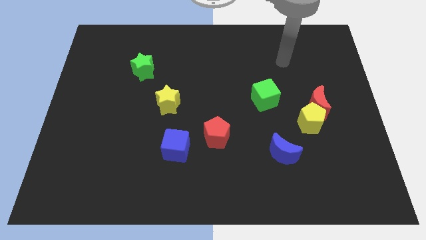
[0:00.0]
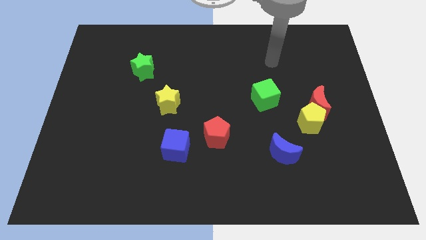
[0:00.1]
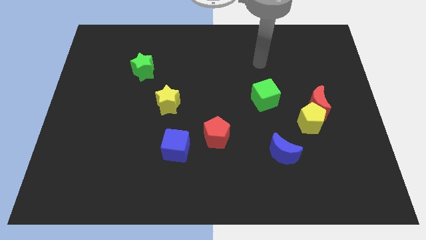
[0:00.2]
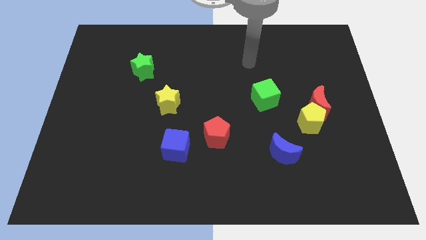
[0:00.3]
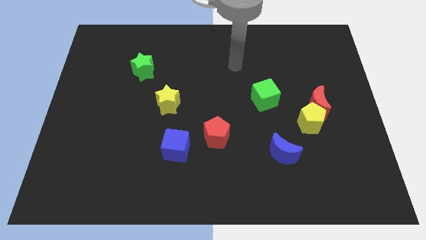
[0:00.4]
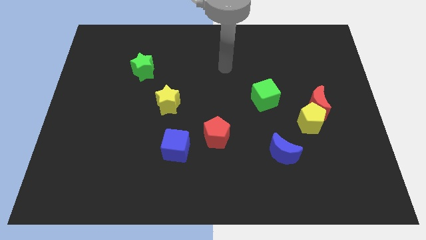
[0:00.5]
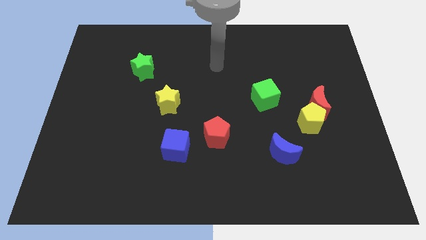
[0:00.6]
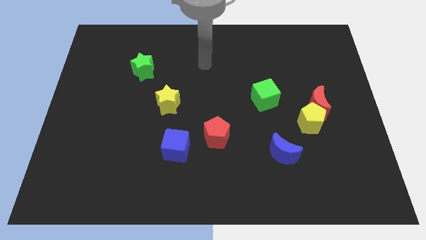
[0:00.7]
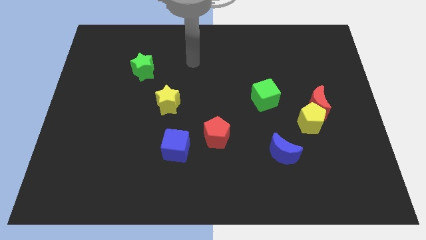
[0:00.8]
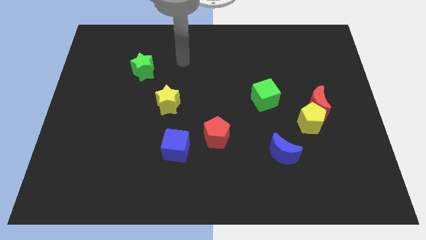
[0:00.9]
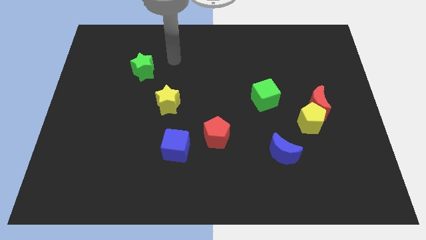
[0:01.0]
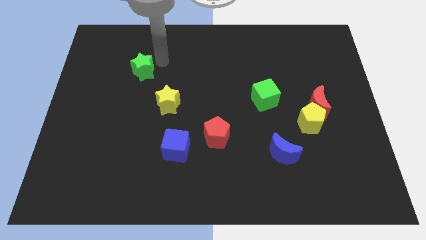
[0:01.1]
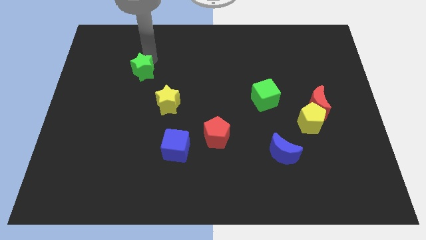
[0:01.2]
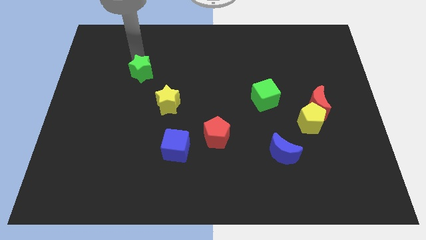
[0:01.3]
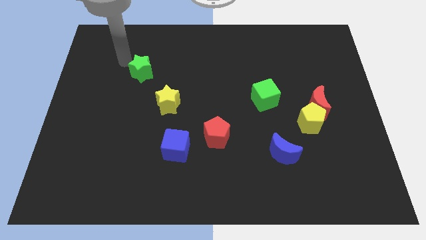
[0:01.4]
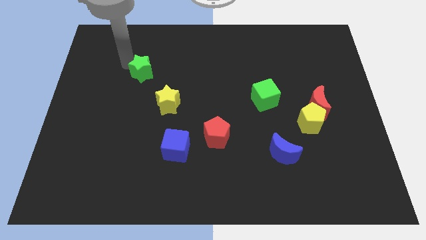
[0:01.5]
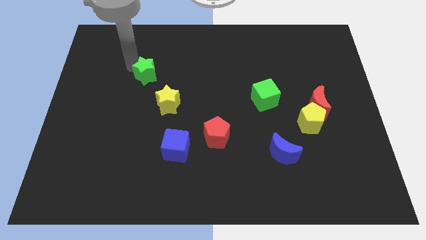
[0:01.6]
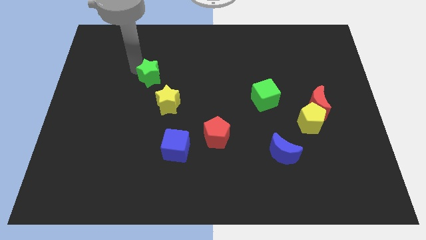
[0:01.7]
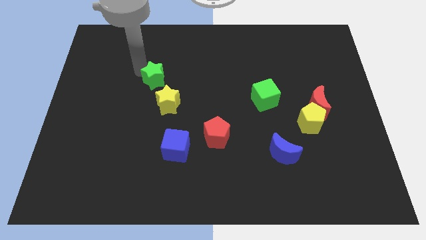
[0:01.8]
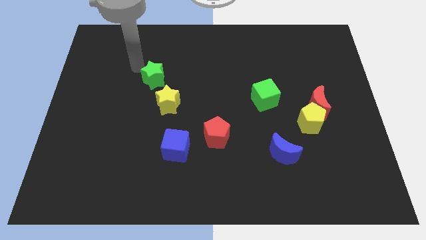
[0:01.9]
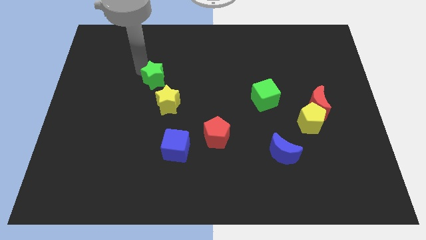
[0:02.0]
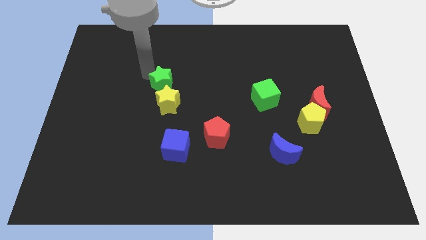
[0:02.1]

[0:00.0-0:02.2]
push the green star diagonally downwards and right a bit

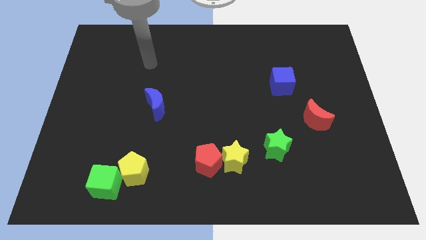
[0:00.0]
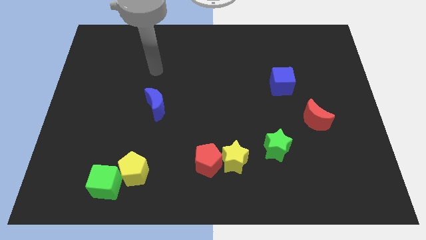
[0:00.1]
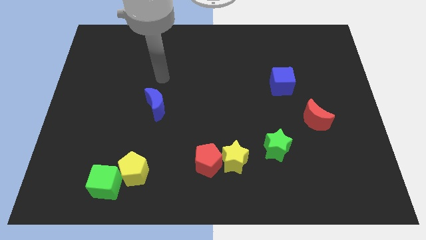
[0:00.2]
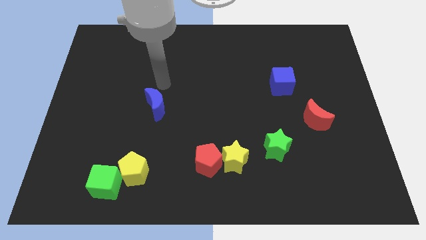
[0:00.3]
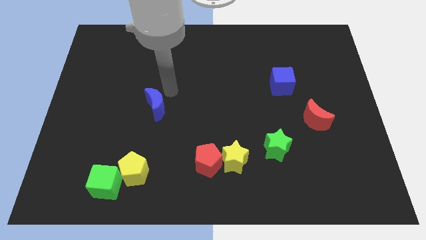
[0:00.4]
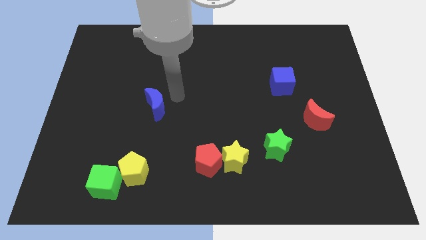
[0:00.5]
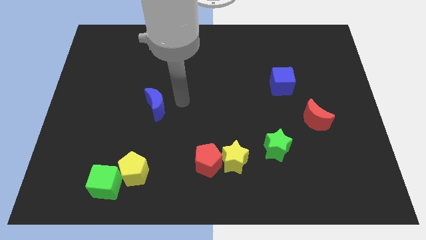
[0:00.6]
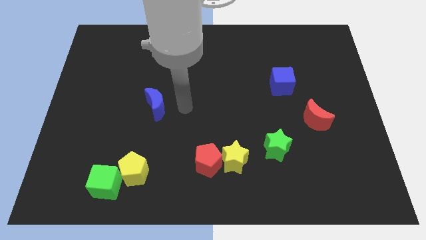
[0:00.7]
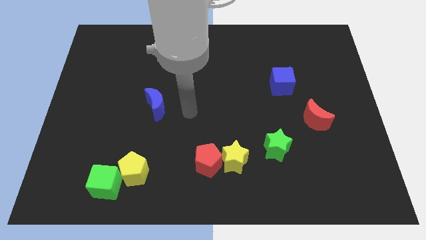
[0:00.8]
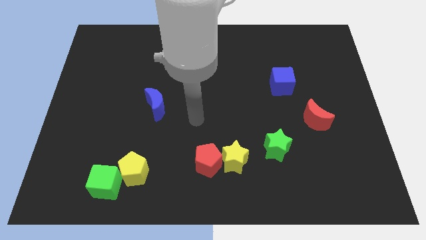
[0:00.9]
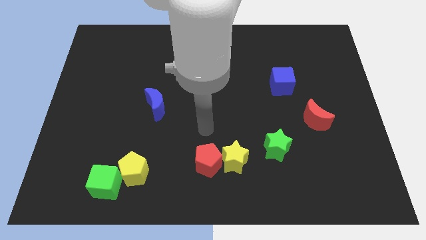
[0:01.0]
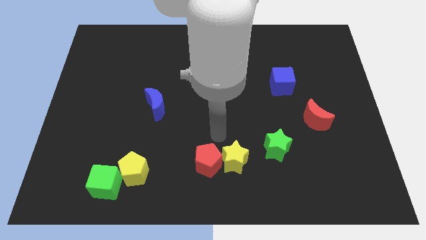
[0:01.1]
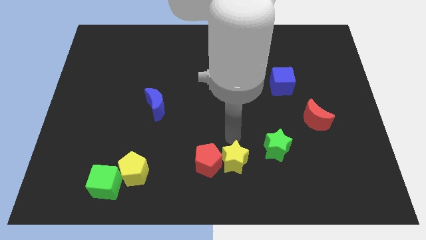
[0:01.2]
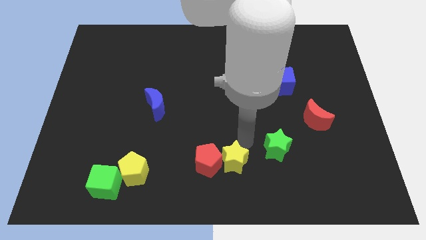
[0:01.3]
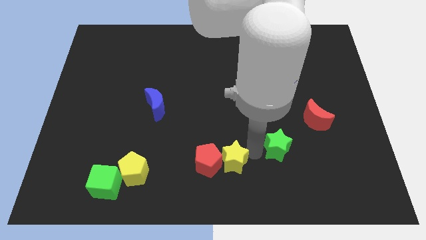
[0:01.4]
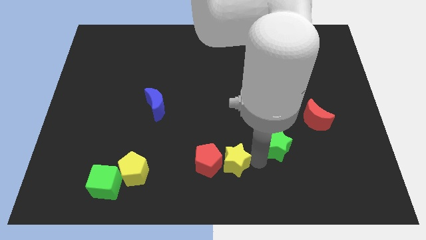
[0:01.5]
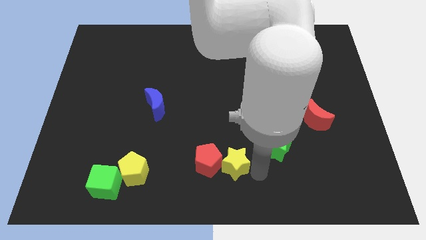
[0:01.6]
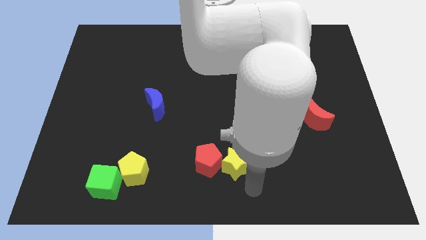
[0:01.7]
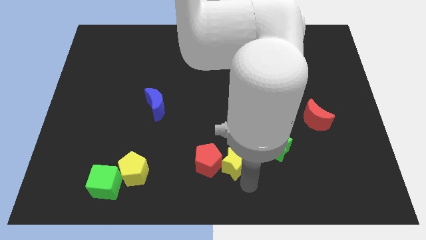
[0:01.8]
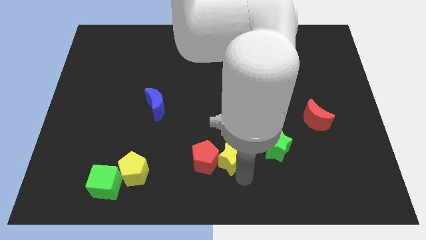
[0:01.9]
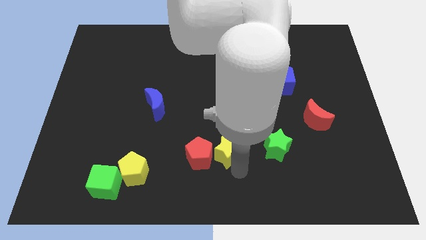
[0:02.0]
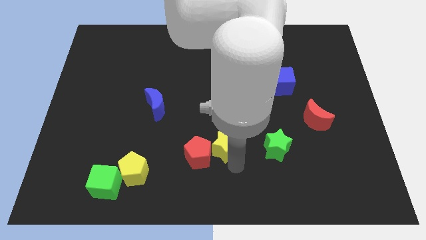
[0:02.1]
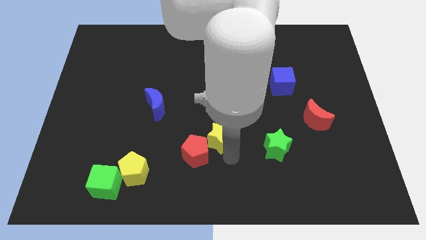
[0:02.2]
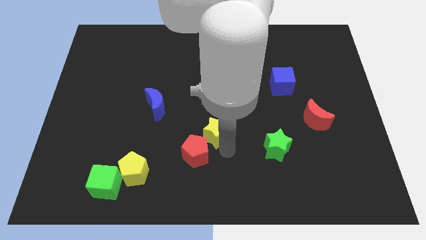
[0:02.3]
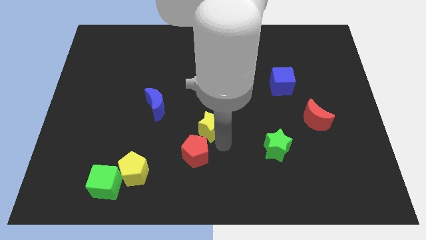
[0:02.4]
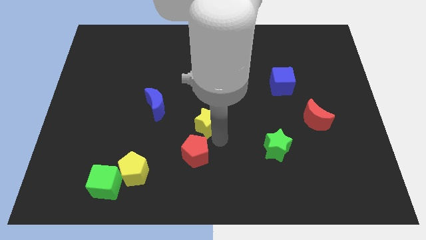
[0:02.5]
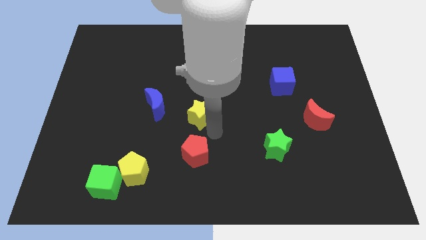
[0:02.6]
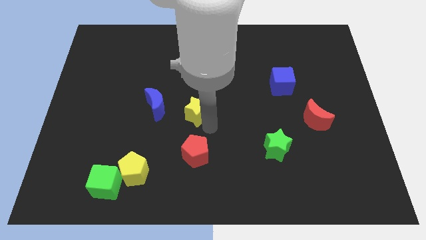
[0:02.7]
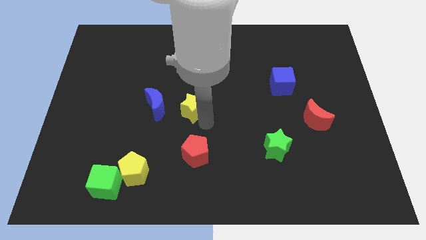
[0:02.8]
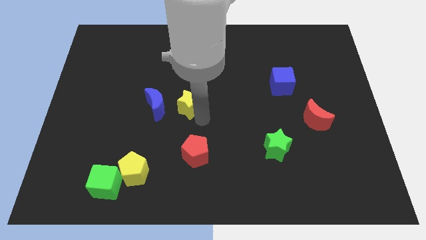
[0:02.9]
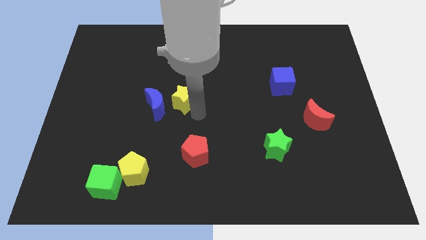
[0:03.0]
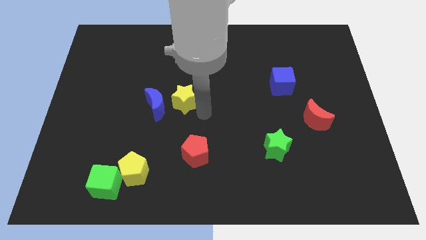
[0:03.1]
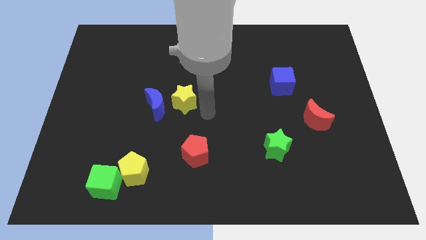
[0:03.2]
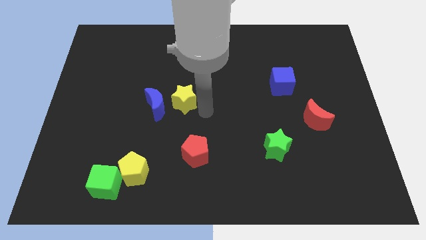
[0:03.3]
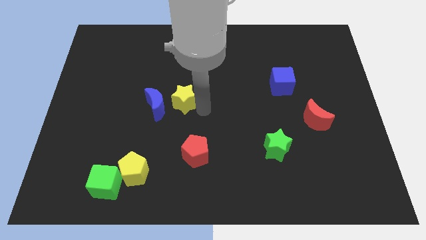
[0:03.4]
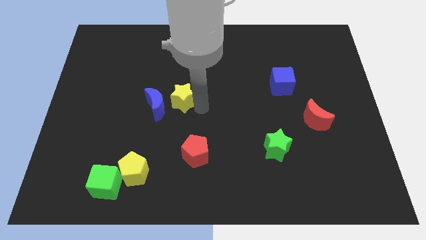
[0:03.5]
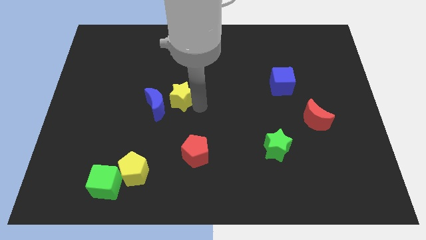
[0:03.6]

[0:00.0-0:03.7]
push the yellow star diagonally upwards and left

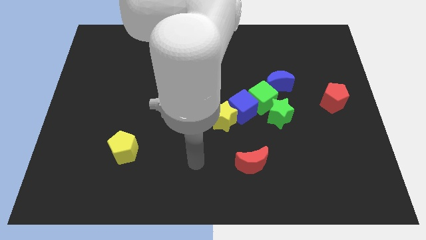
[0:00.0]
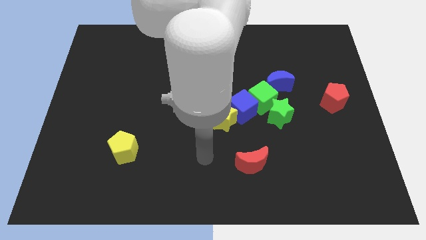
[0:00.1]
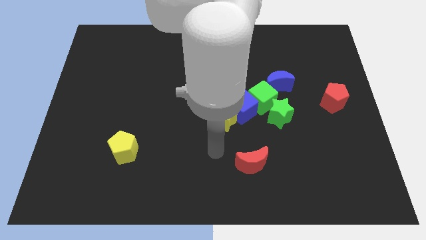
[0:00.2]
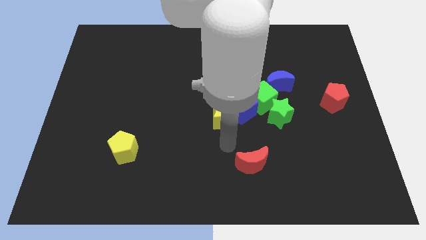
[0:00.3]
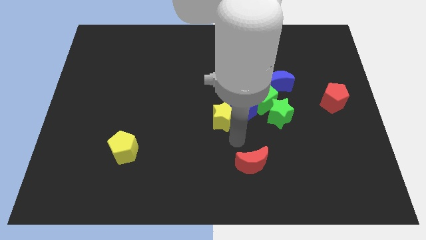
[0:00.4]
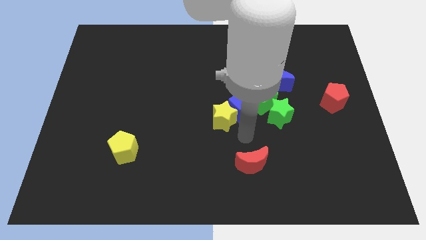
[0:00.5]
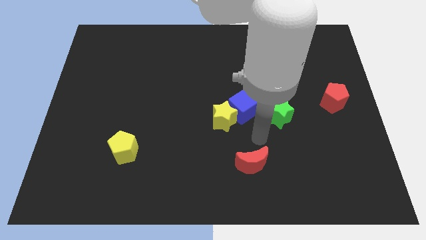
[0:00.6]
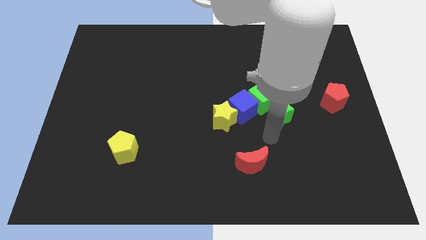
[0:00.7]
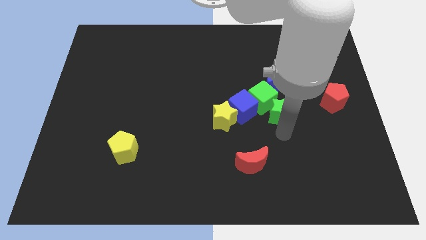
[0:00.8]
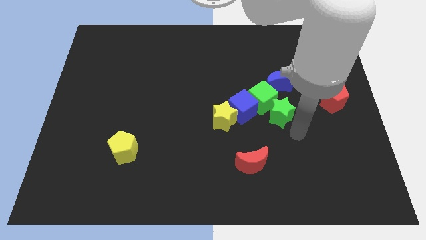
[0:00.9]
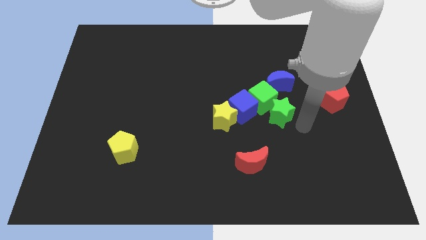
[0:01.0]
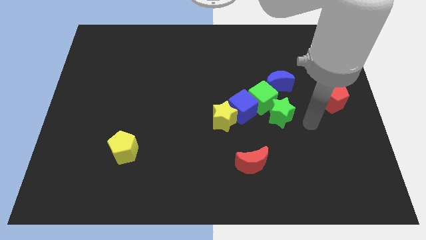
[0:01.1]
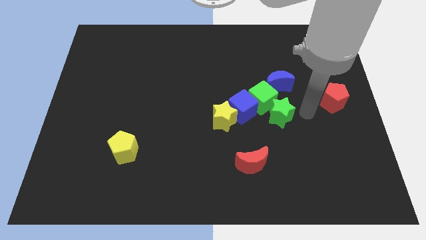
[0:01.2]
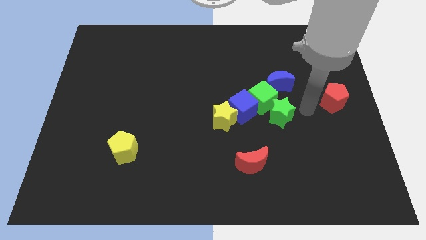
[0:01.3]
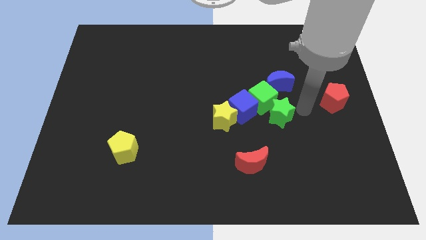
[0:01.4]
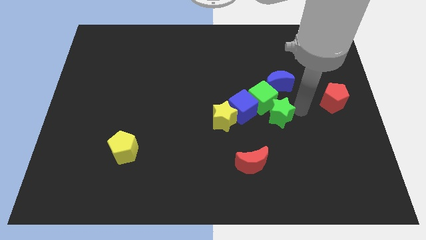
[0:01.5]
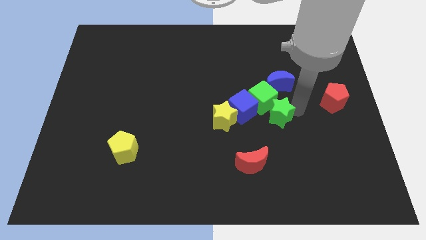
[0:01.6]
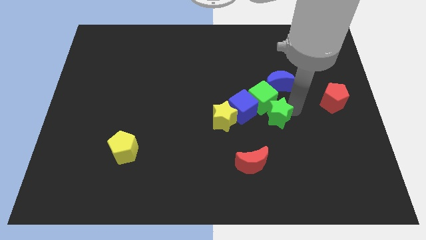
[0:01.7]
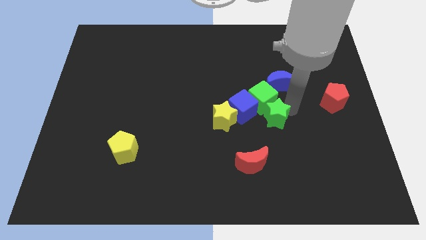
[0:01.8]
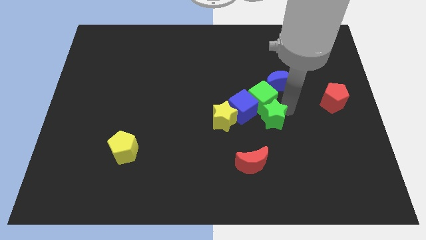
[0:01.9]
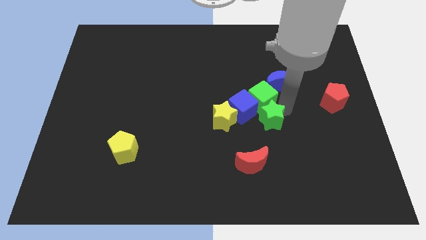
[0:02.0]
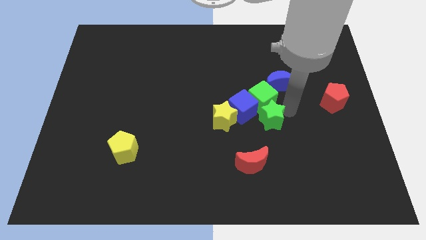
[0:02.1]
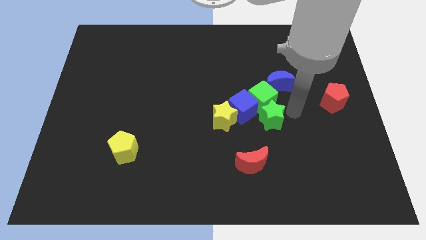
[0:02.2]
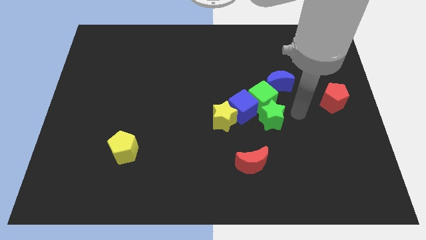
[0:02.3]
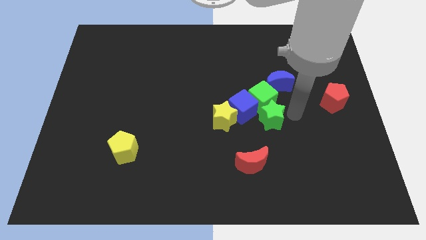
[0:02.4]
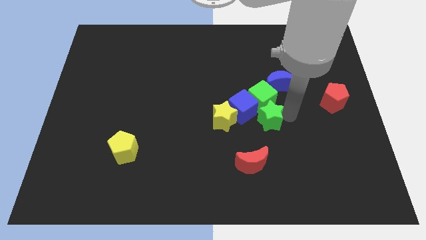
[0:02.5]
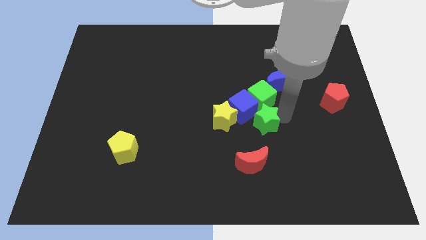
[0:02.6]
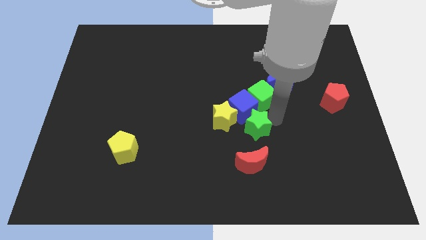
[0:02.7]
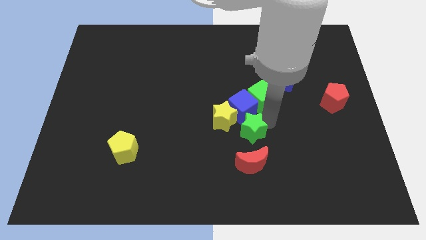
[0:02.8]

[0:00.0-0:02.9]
move the green star diagonally down and to the left a little bit
